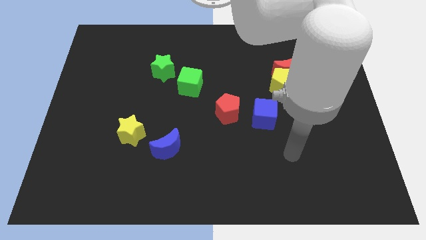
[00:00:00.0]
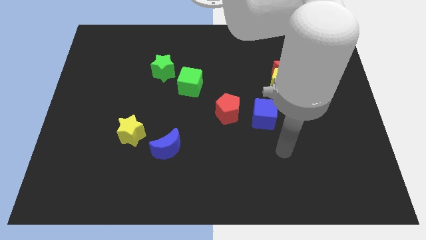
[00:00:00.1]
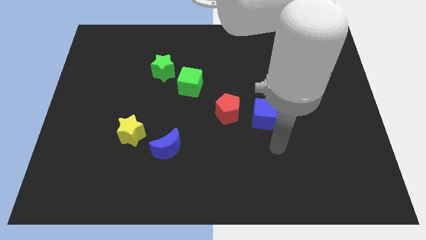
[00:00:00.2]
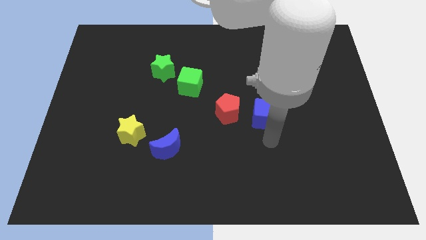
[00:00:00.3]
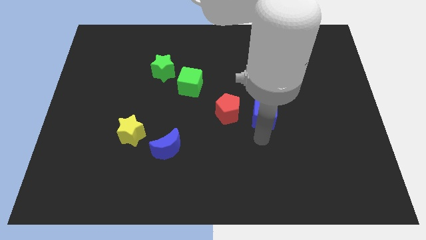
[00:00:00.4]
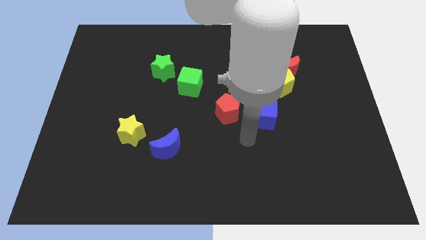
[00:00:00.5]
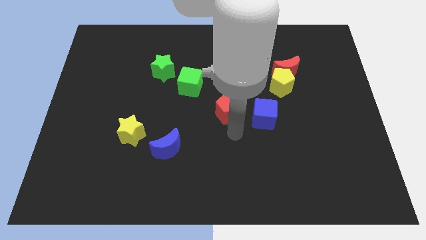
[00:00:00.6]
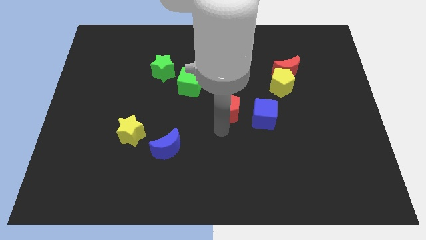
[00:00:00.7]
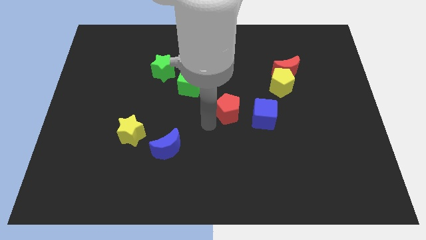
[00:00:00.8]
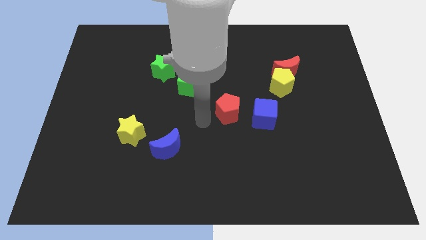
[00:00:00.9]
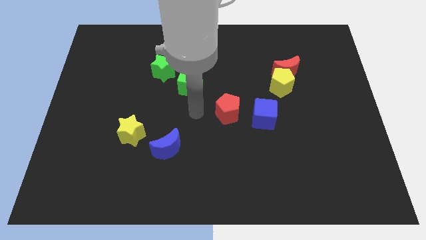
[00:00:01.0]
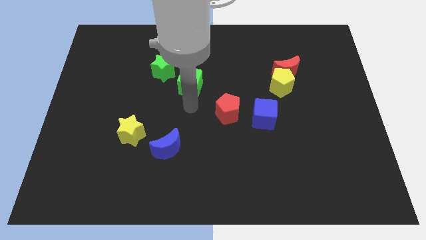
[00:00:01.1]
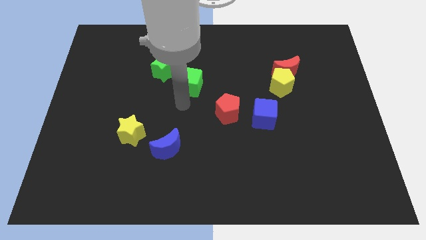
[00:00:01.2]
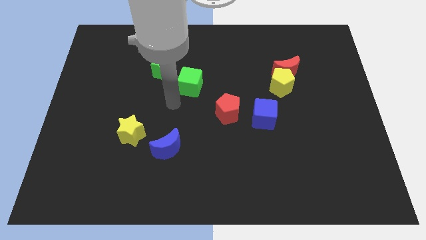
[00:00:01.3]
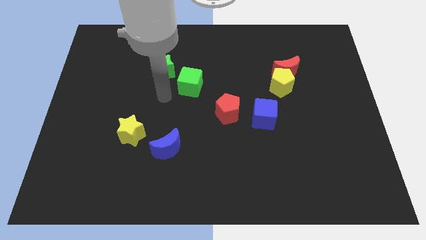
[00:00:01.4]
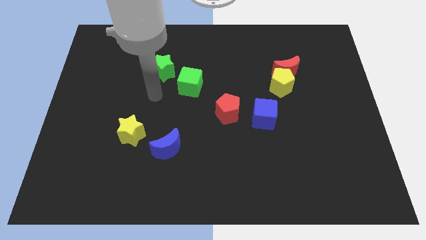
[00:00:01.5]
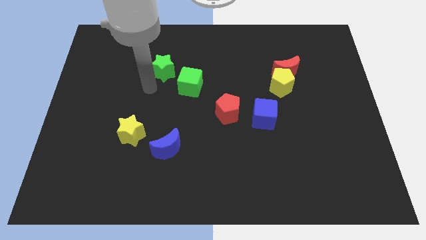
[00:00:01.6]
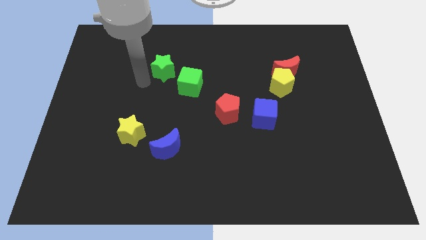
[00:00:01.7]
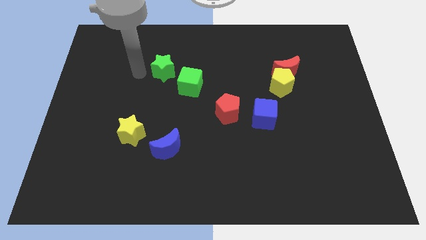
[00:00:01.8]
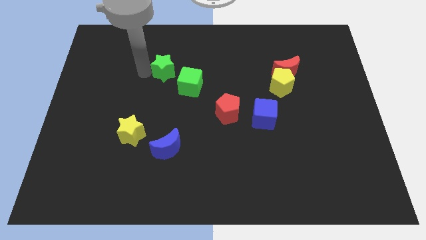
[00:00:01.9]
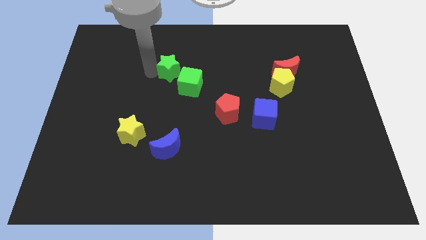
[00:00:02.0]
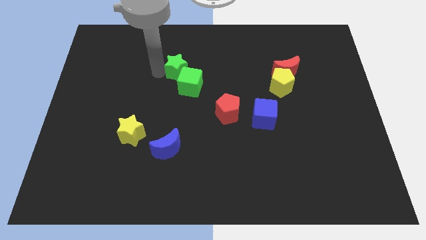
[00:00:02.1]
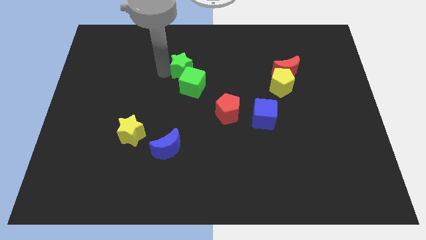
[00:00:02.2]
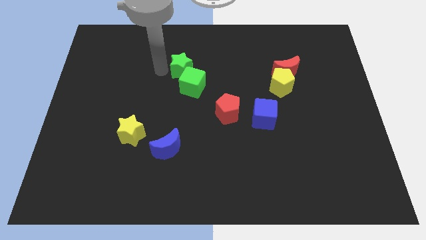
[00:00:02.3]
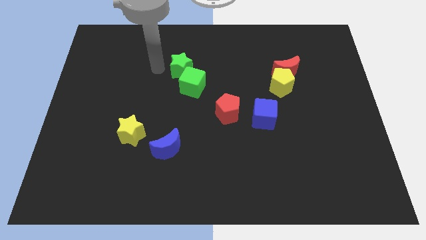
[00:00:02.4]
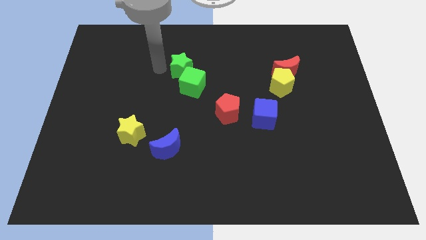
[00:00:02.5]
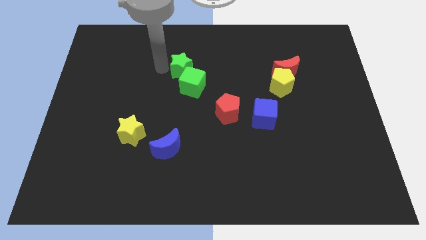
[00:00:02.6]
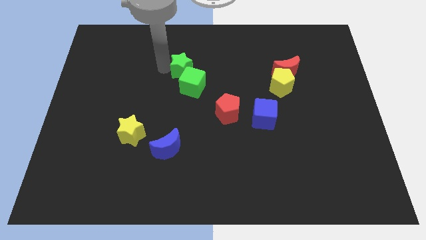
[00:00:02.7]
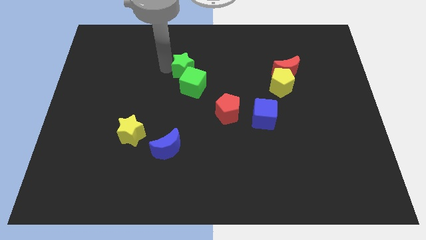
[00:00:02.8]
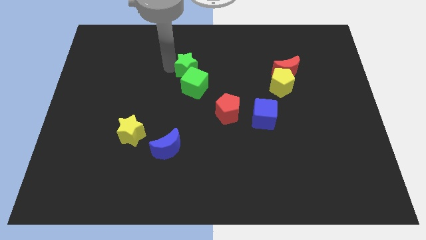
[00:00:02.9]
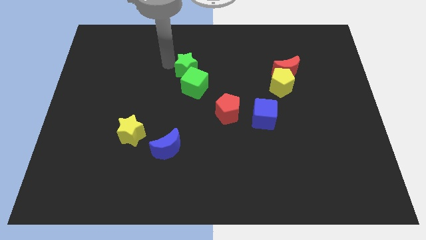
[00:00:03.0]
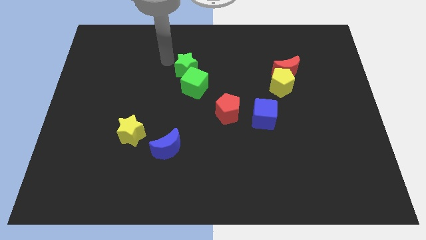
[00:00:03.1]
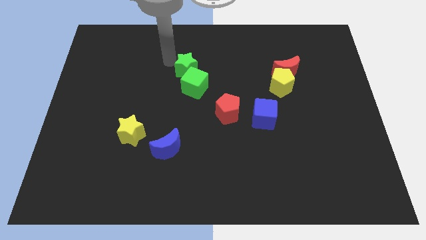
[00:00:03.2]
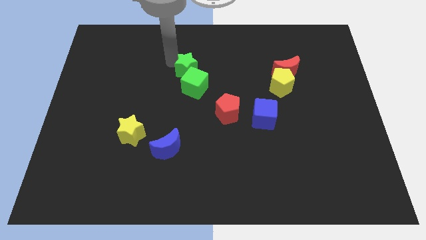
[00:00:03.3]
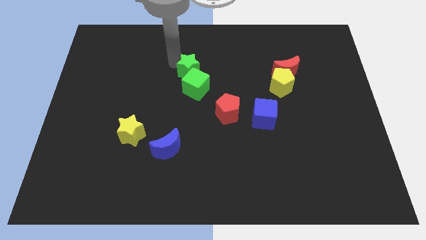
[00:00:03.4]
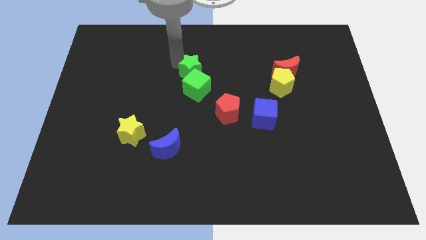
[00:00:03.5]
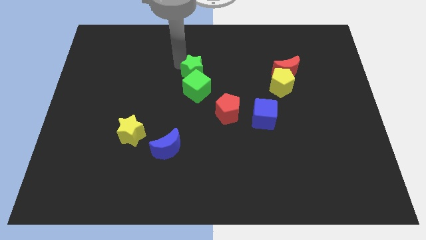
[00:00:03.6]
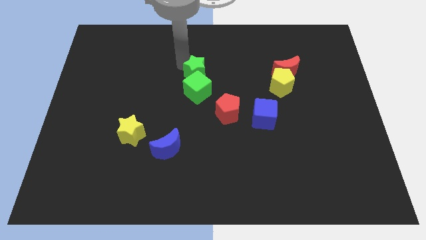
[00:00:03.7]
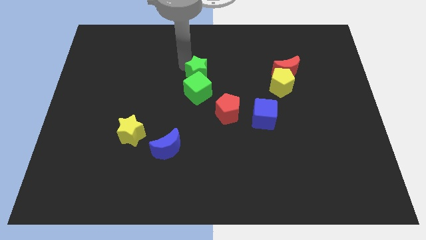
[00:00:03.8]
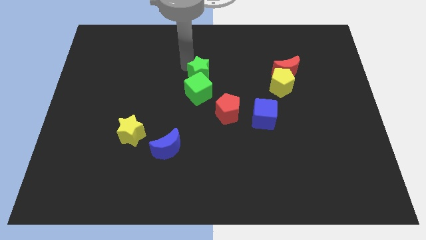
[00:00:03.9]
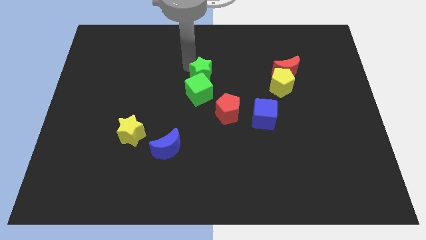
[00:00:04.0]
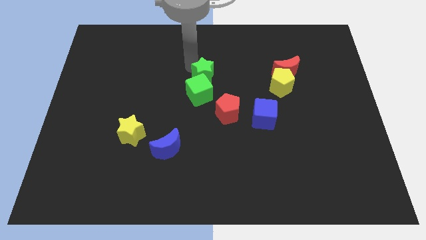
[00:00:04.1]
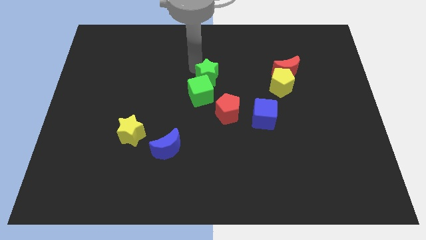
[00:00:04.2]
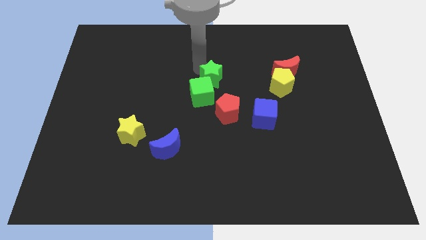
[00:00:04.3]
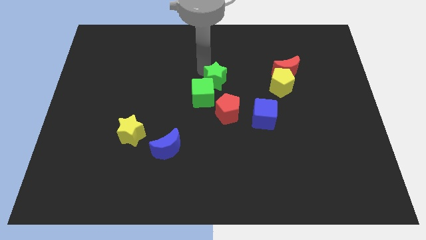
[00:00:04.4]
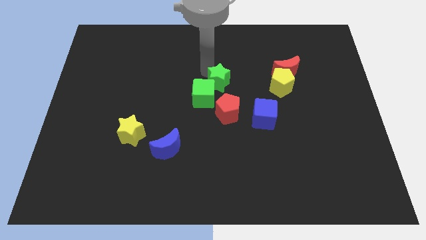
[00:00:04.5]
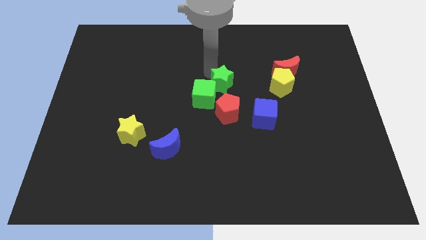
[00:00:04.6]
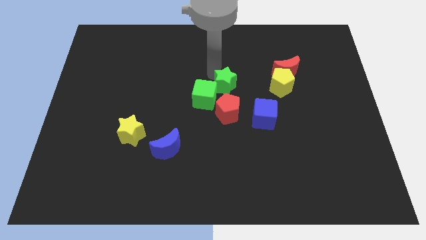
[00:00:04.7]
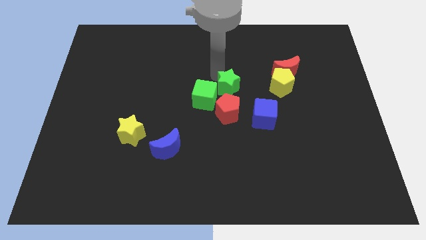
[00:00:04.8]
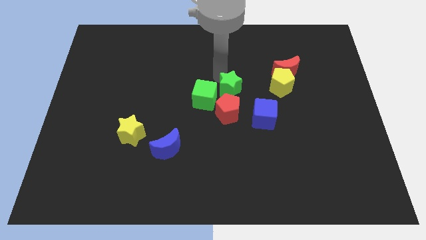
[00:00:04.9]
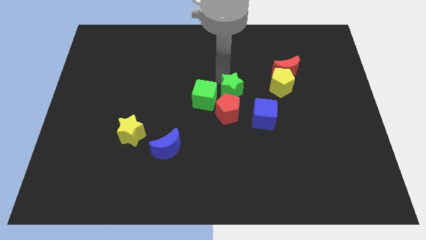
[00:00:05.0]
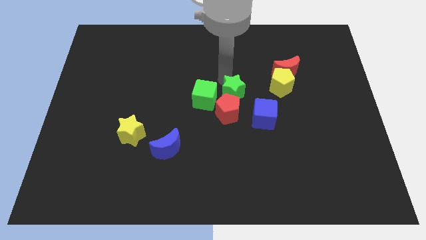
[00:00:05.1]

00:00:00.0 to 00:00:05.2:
push the green star towards the red pentagon

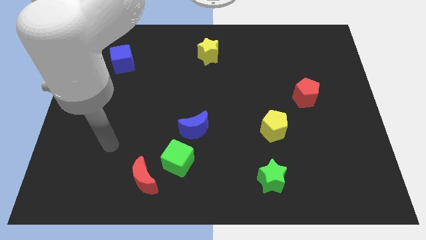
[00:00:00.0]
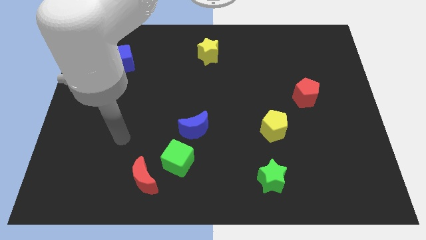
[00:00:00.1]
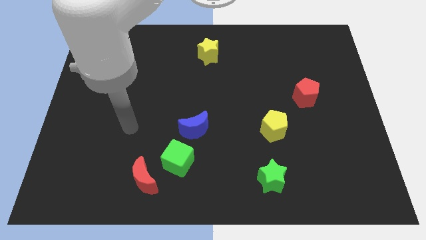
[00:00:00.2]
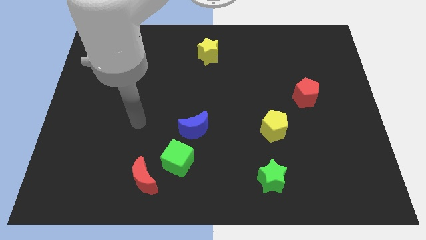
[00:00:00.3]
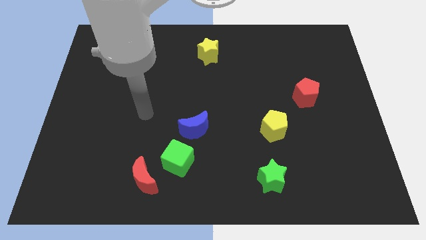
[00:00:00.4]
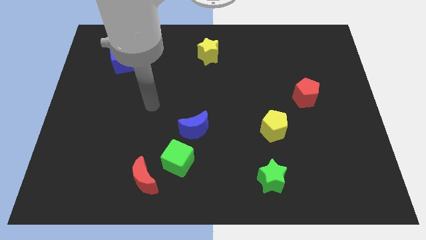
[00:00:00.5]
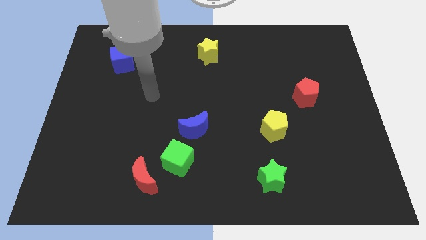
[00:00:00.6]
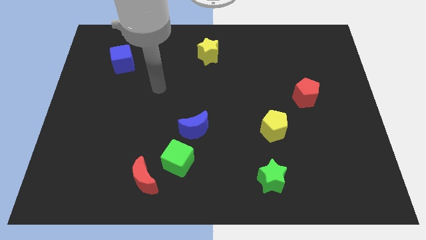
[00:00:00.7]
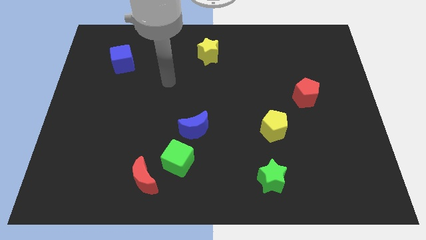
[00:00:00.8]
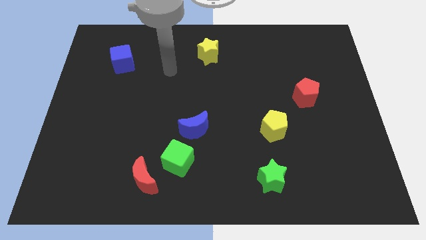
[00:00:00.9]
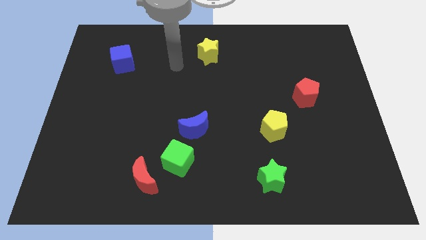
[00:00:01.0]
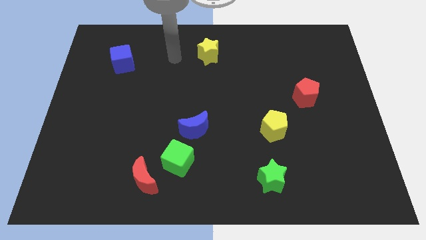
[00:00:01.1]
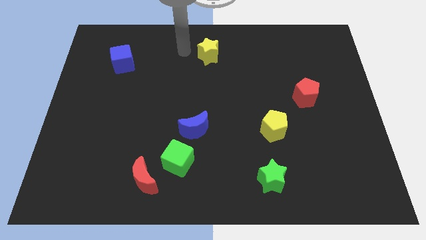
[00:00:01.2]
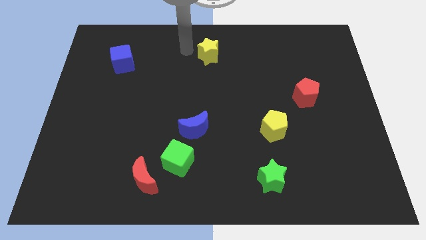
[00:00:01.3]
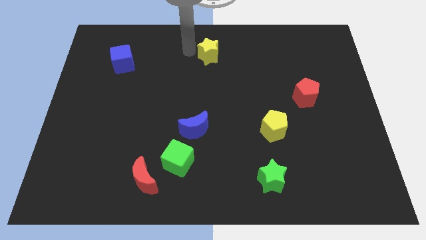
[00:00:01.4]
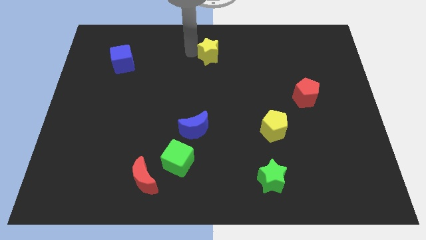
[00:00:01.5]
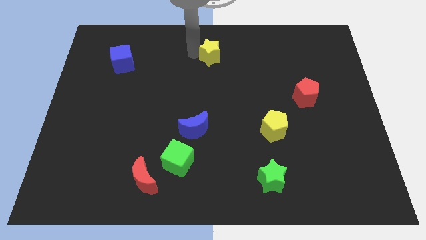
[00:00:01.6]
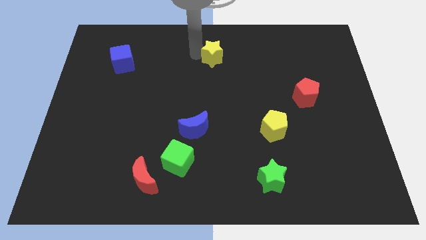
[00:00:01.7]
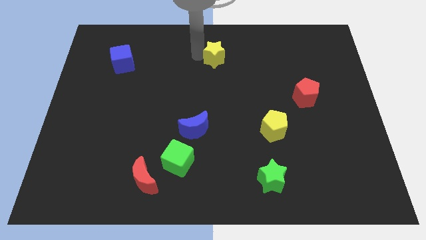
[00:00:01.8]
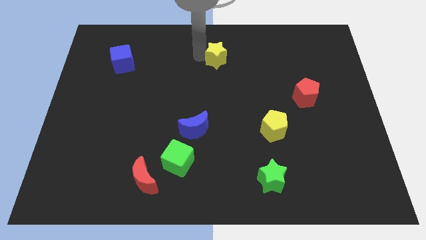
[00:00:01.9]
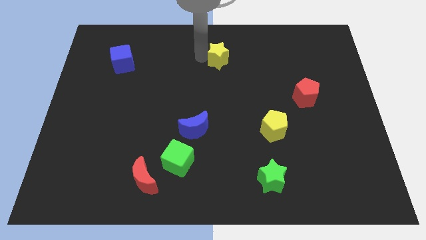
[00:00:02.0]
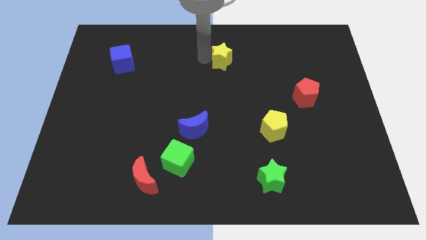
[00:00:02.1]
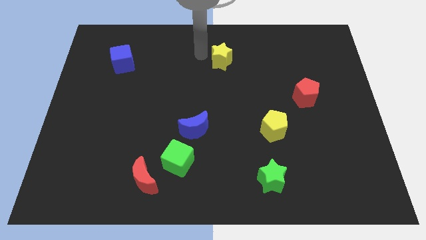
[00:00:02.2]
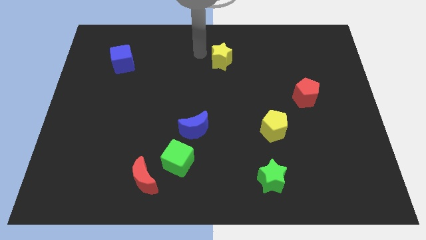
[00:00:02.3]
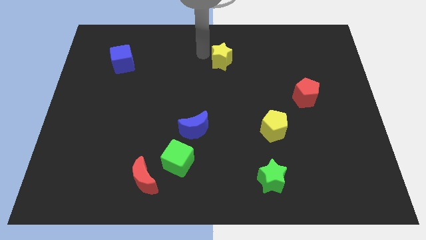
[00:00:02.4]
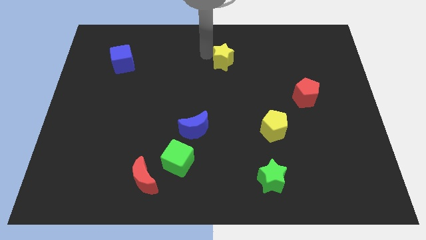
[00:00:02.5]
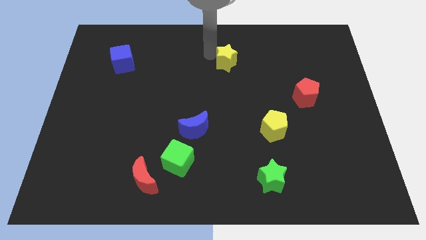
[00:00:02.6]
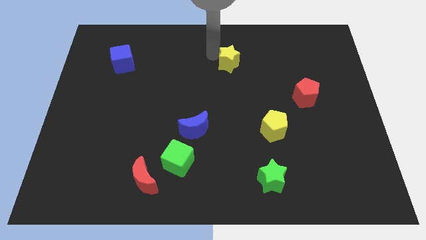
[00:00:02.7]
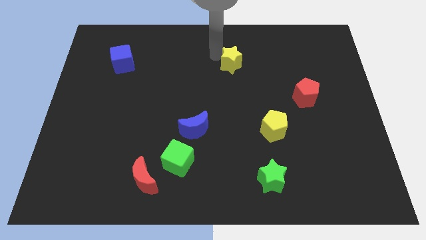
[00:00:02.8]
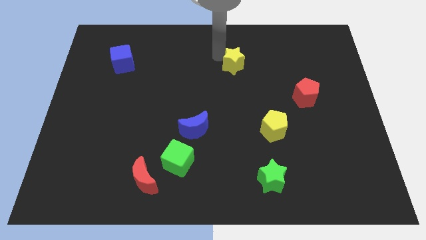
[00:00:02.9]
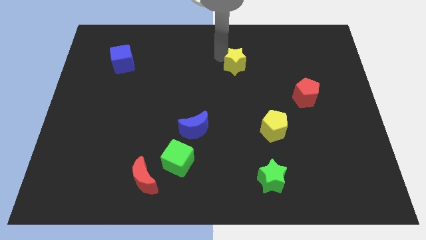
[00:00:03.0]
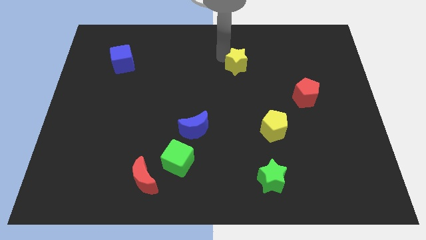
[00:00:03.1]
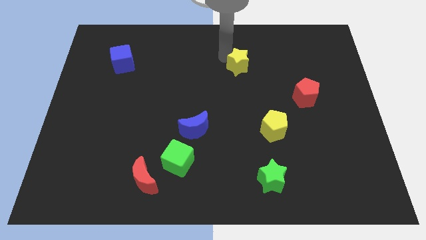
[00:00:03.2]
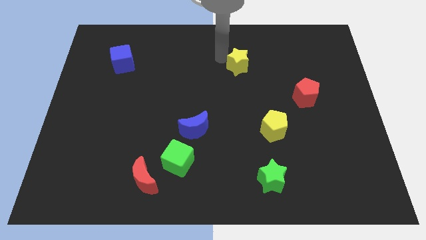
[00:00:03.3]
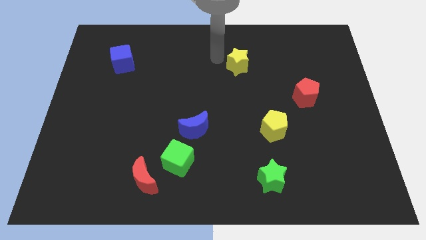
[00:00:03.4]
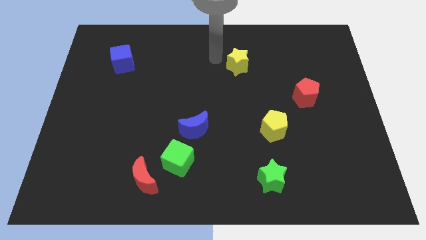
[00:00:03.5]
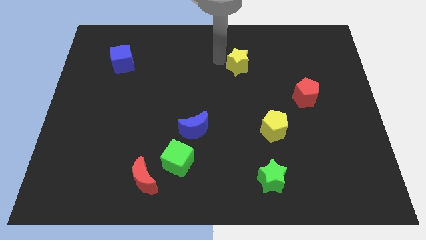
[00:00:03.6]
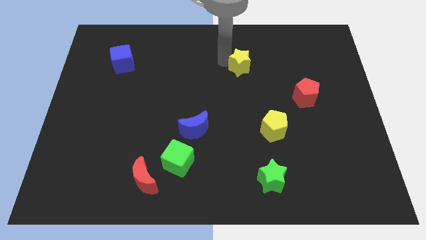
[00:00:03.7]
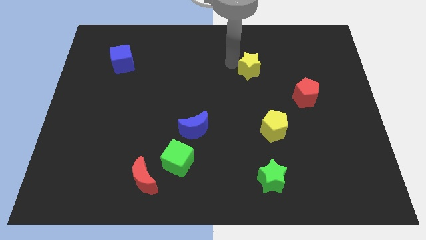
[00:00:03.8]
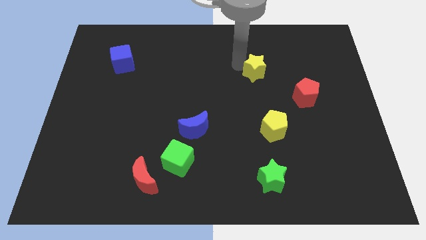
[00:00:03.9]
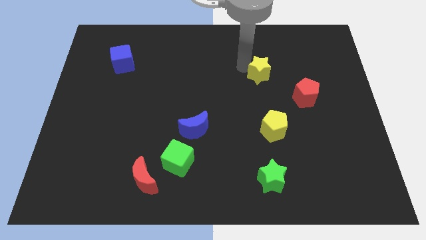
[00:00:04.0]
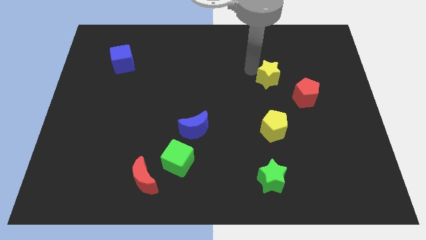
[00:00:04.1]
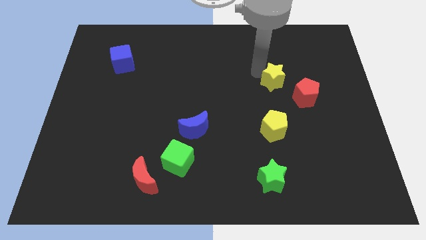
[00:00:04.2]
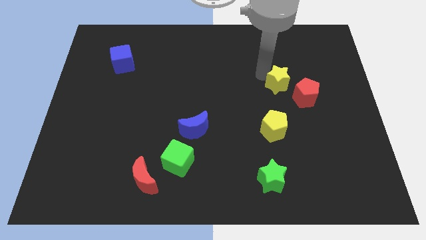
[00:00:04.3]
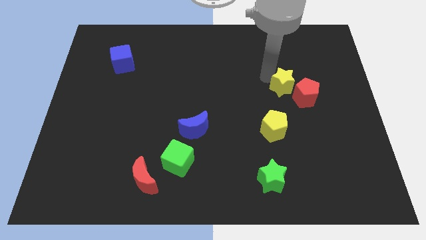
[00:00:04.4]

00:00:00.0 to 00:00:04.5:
push the yellow star next to the red pentagon
